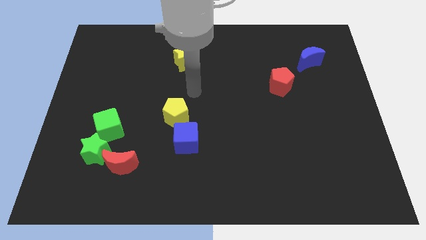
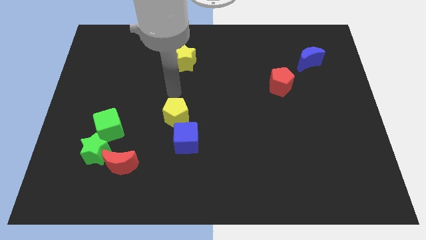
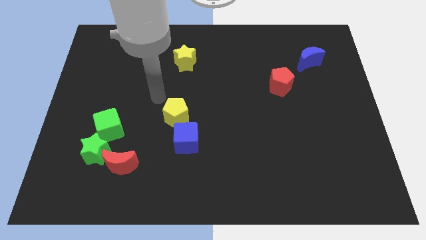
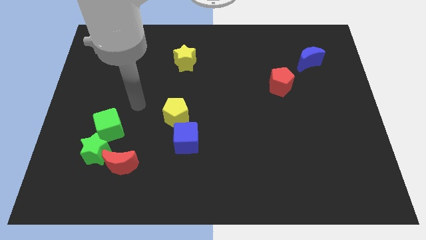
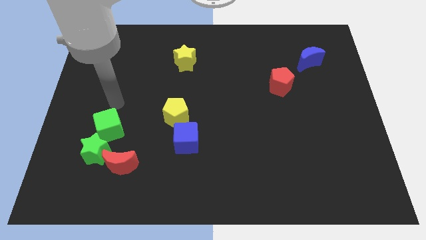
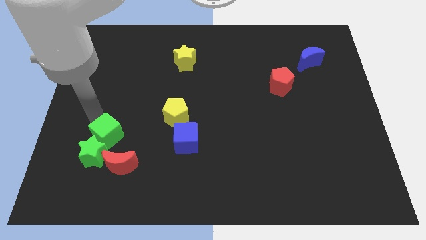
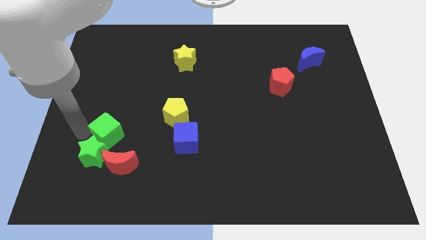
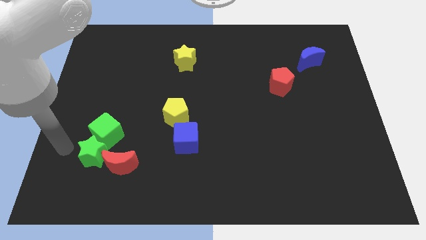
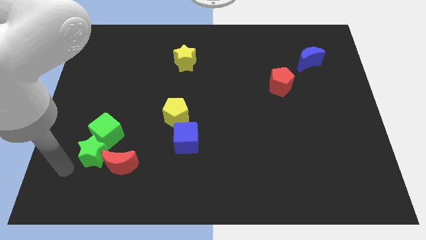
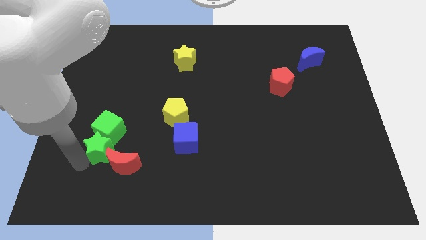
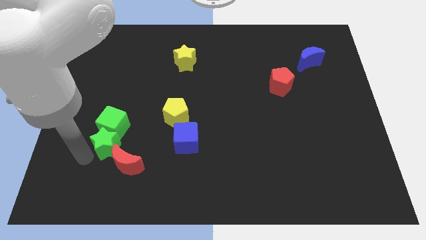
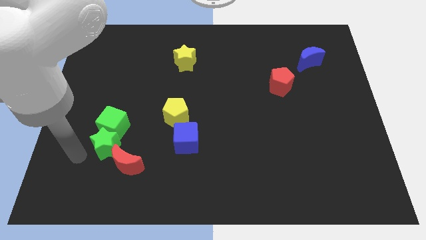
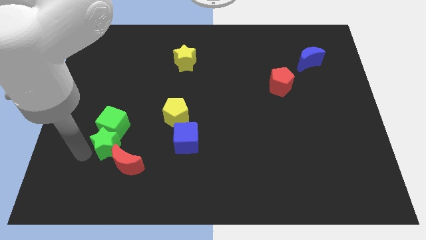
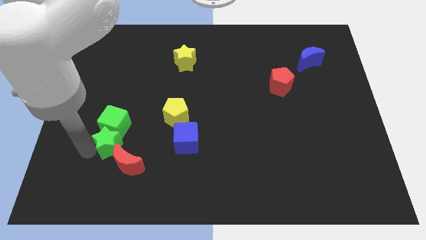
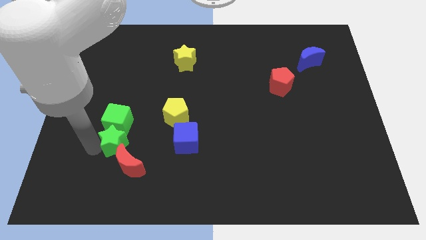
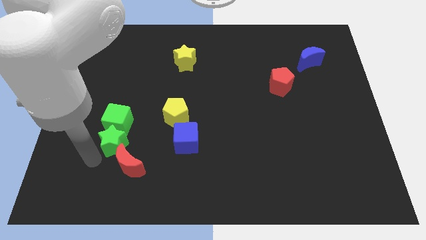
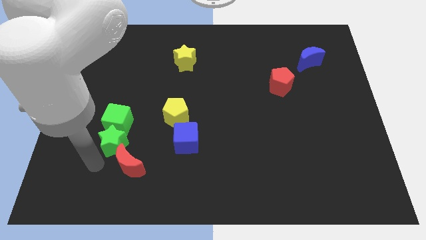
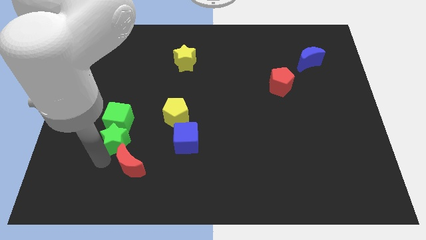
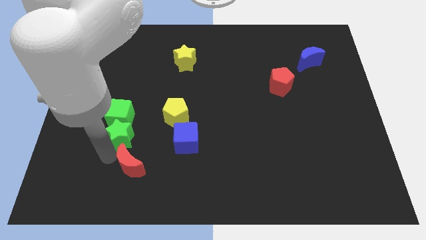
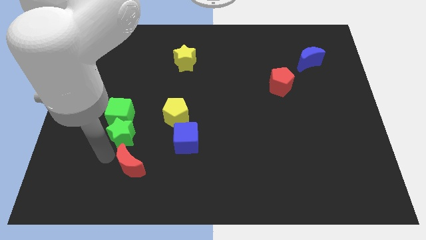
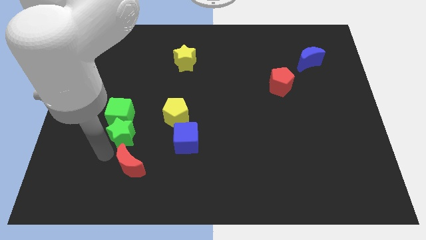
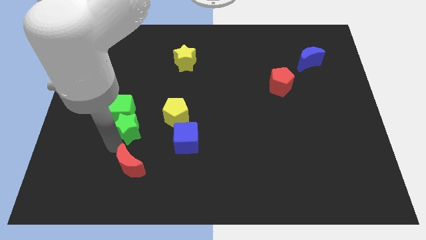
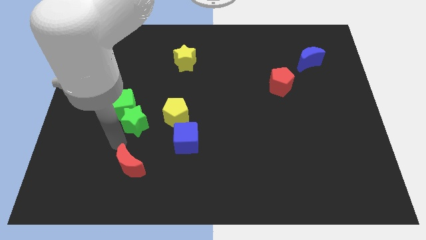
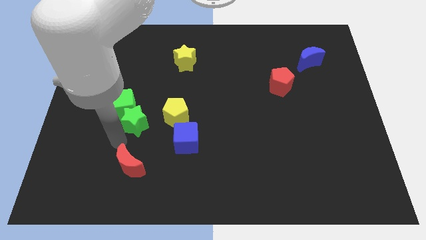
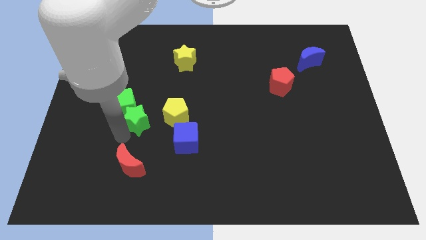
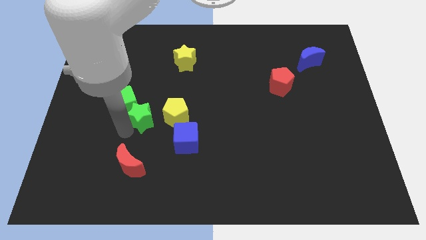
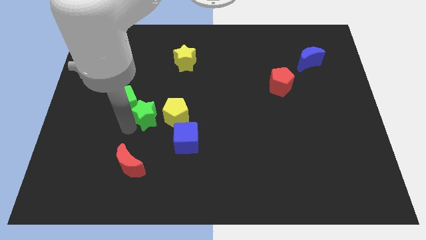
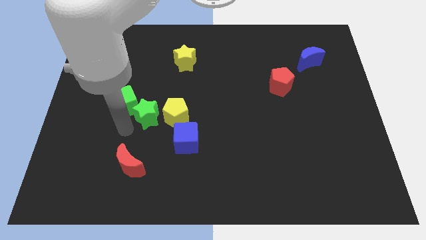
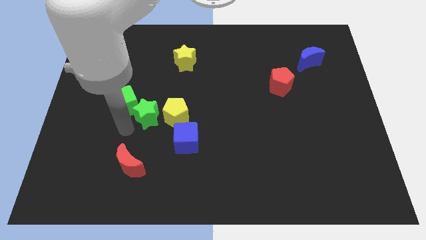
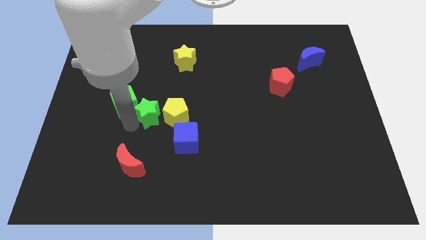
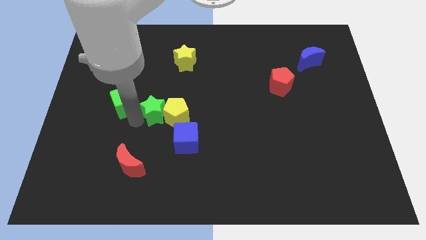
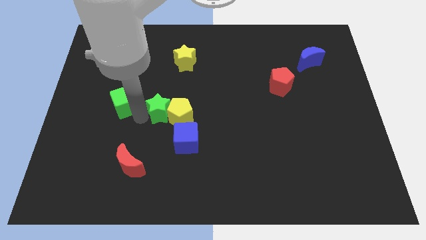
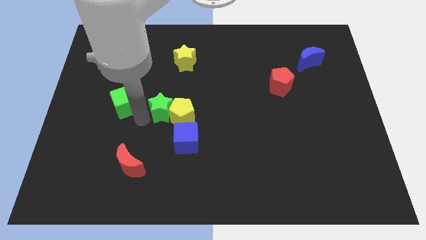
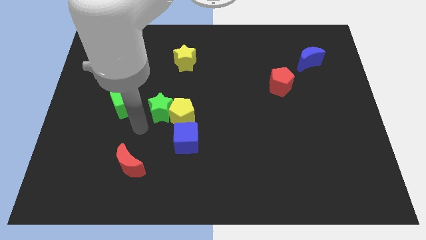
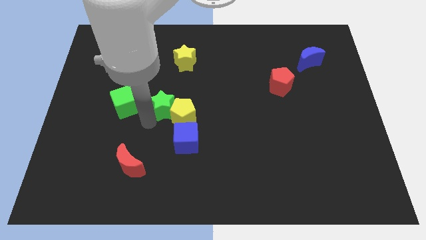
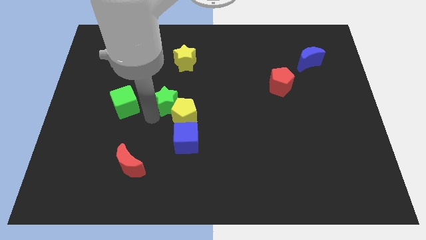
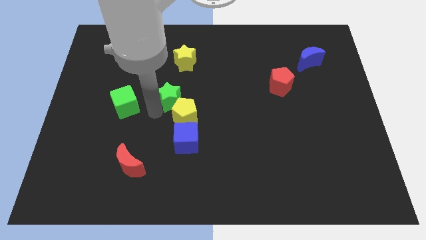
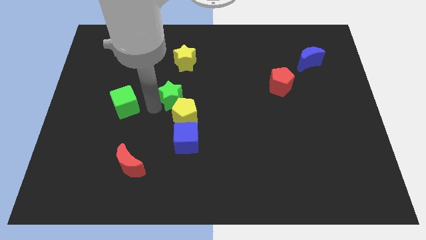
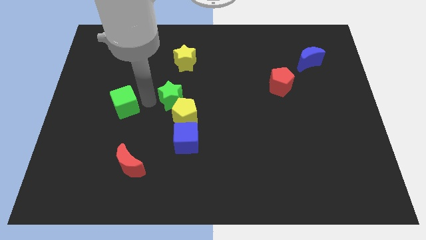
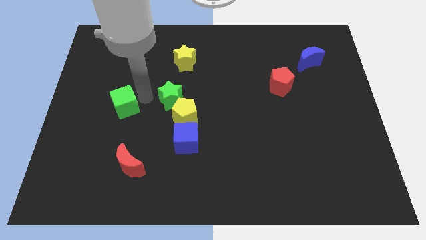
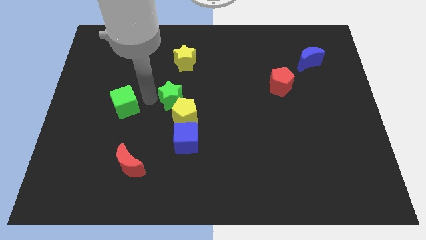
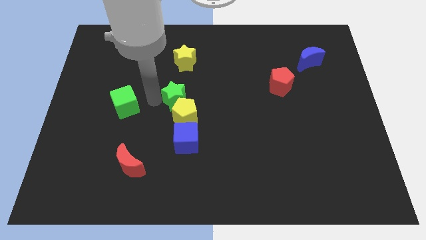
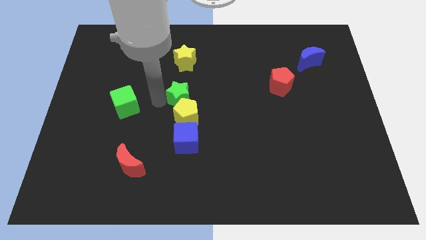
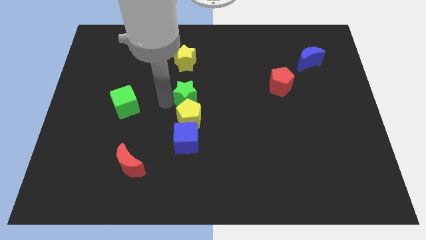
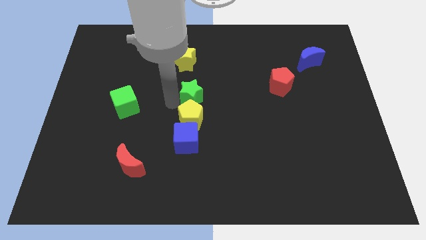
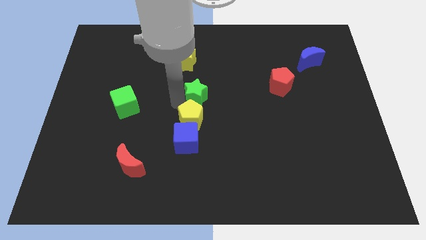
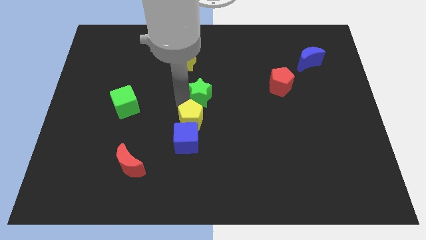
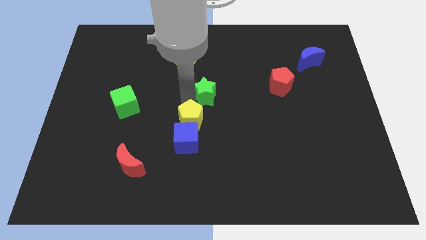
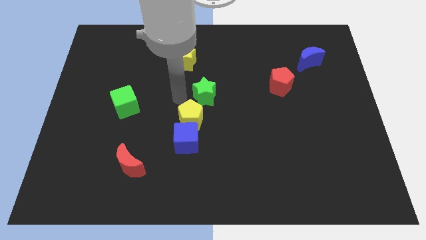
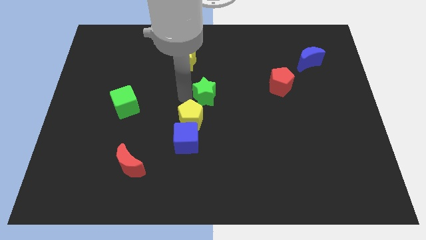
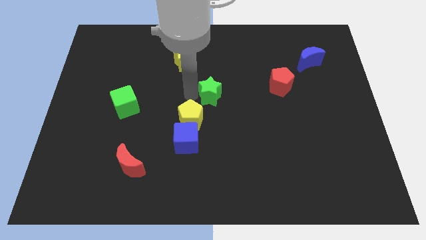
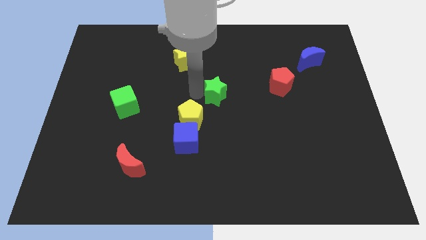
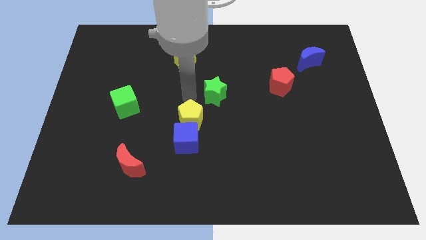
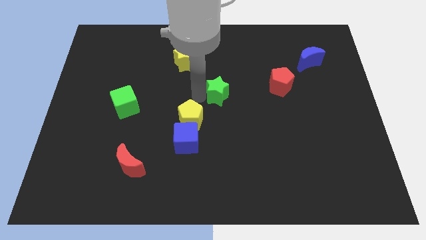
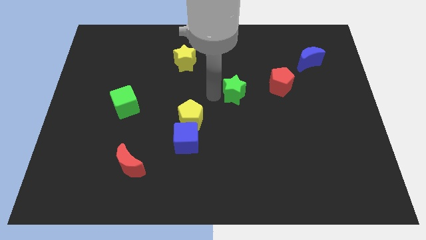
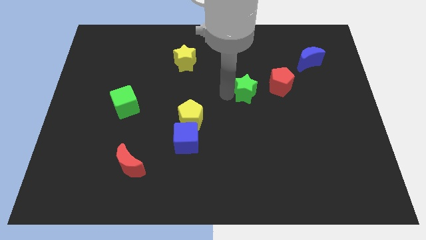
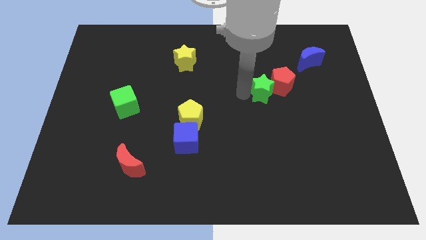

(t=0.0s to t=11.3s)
push the green star to the red pentagon

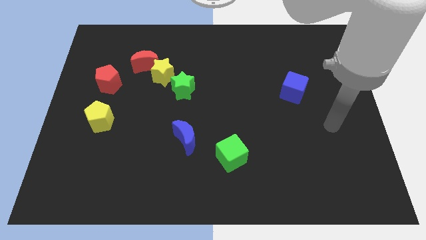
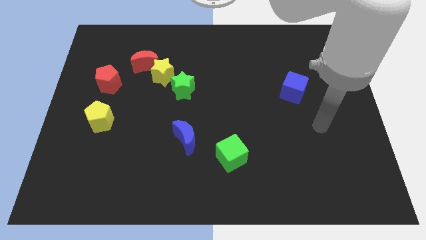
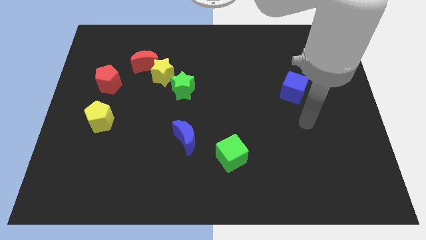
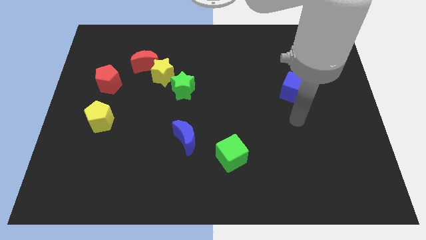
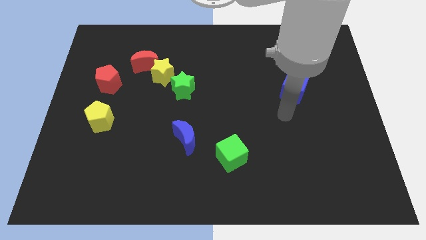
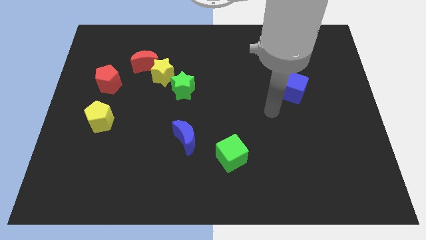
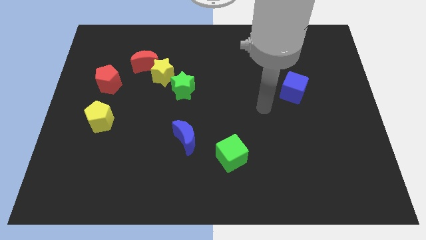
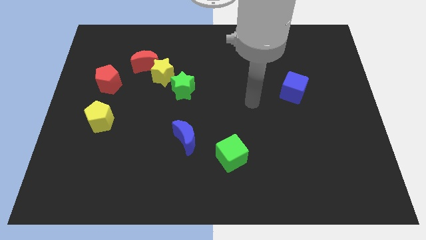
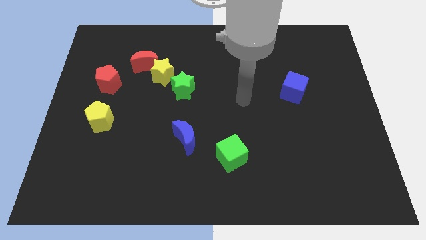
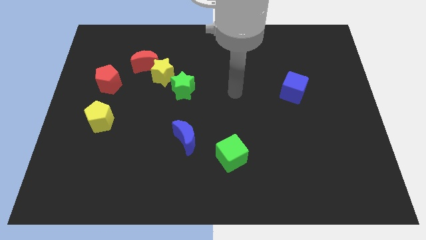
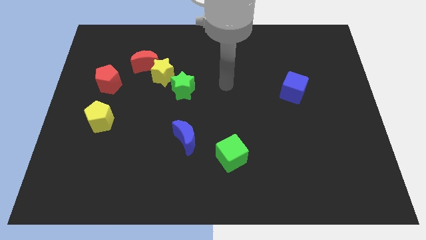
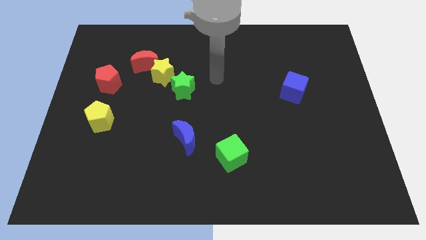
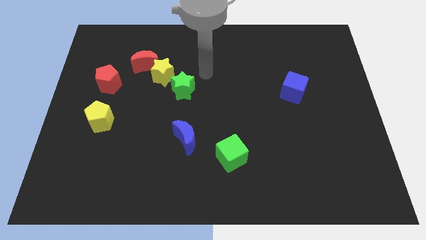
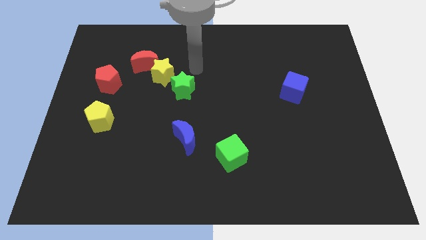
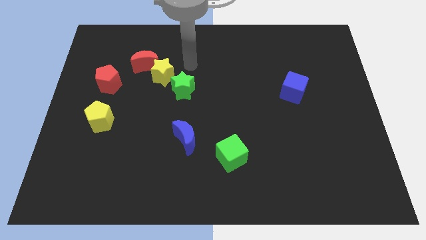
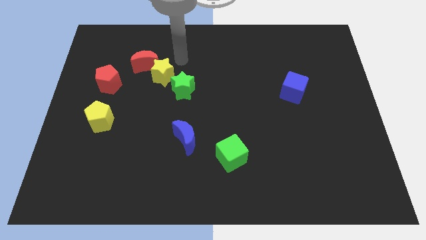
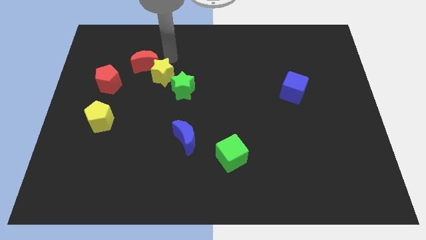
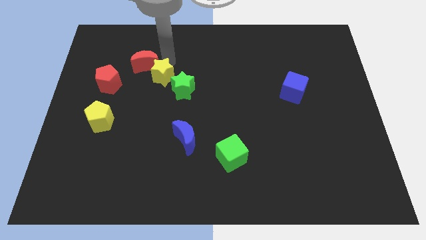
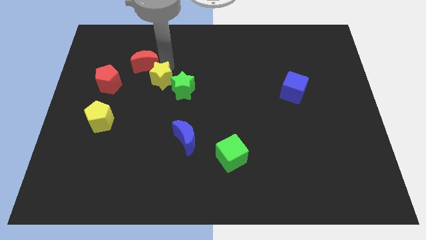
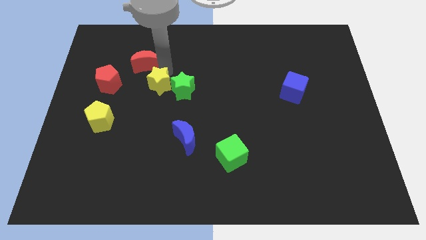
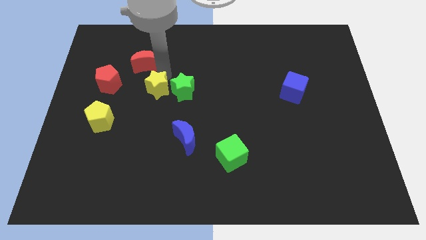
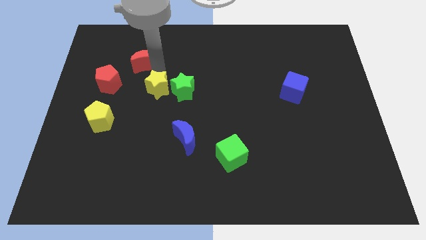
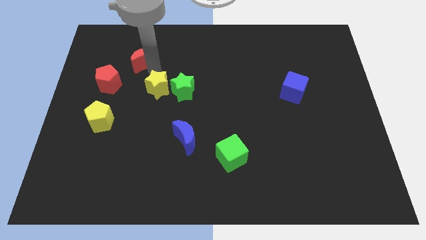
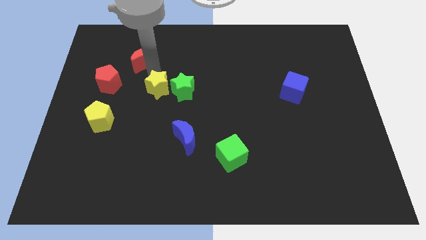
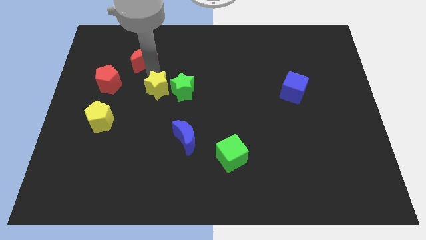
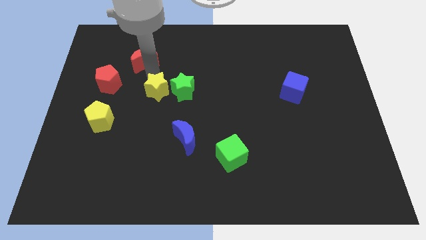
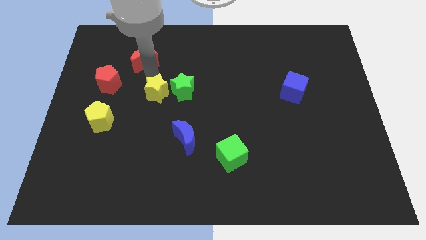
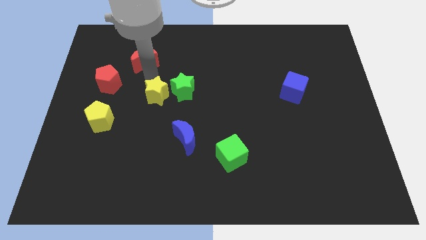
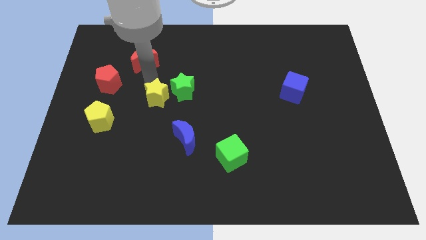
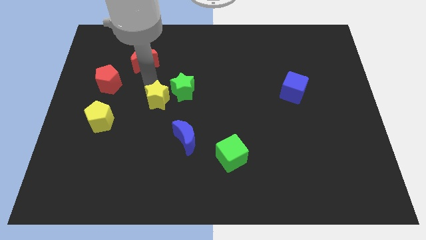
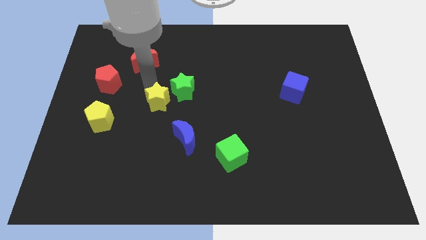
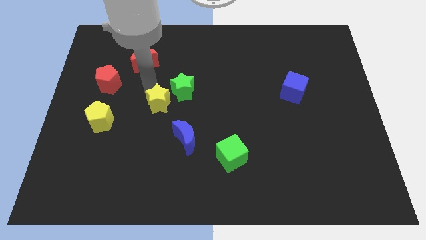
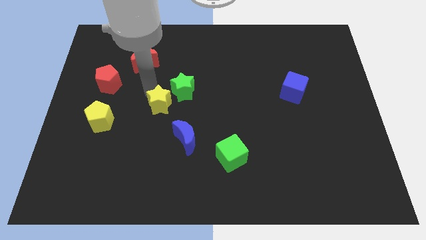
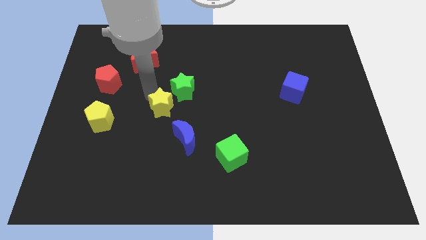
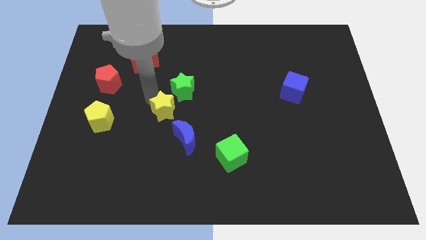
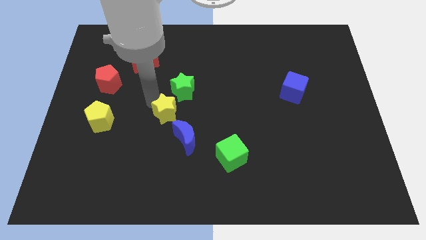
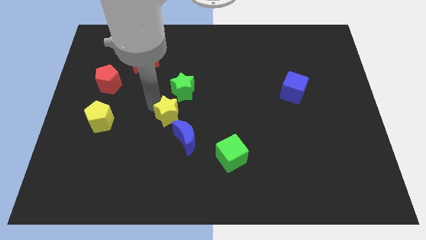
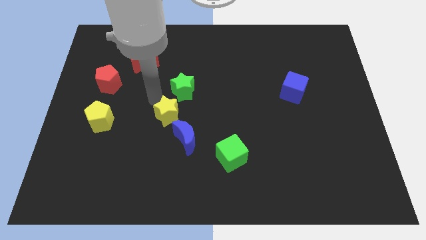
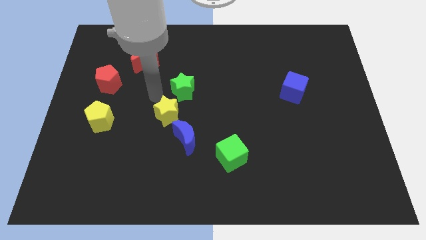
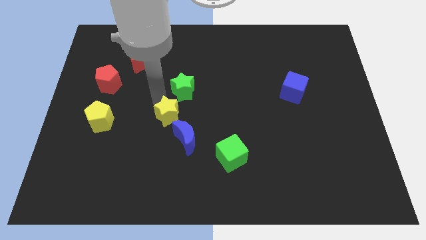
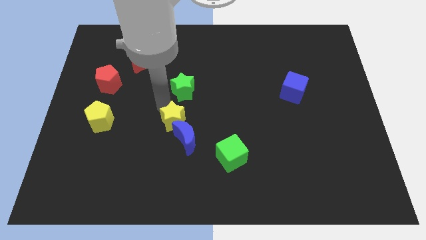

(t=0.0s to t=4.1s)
slide the yellow star next to the blue moon
